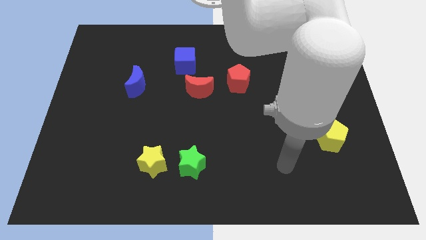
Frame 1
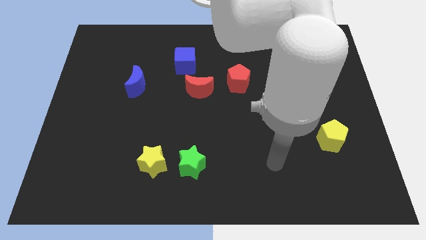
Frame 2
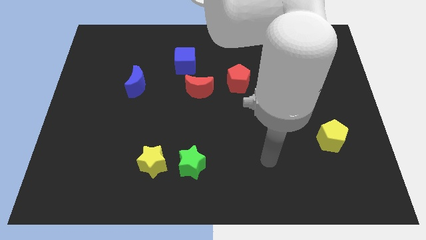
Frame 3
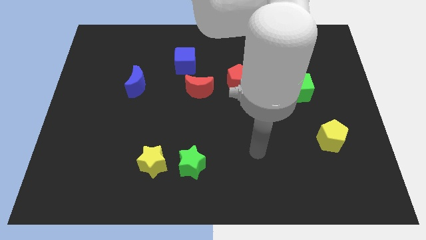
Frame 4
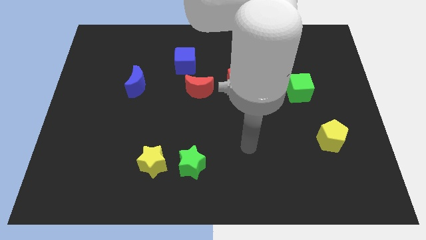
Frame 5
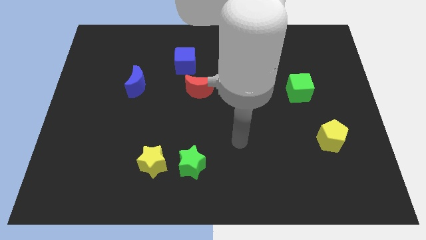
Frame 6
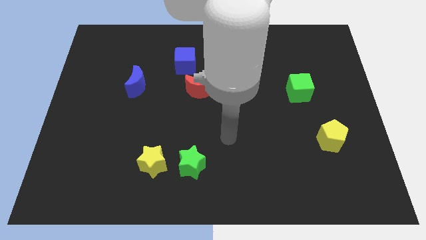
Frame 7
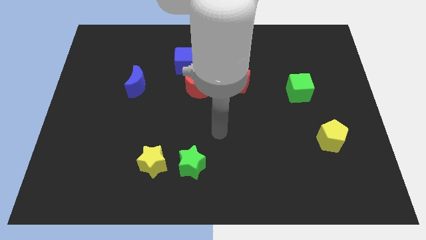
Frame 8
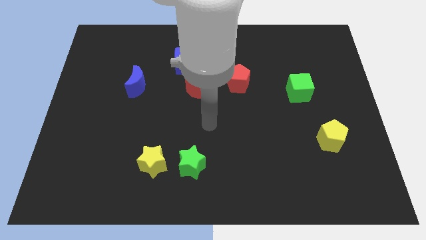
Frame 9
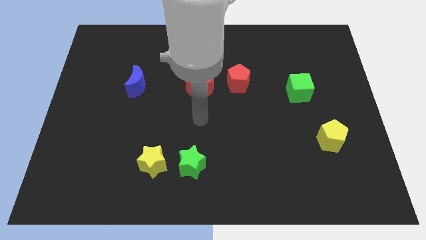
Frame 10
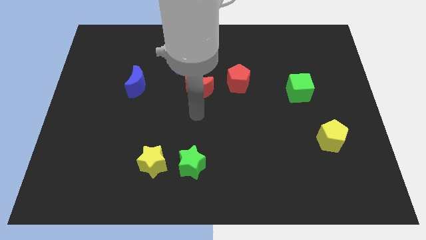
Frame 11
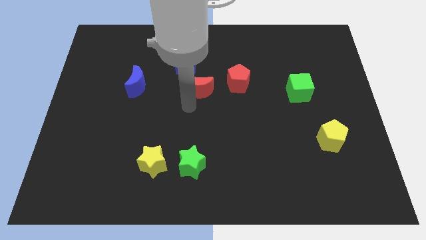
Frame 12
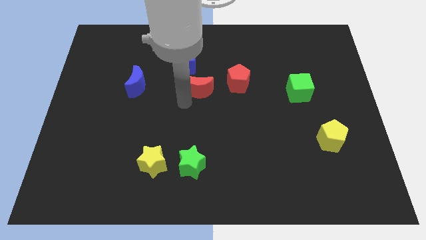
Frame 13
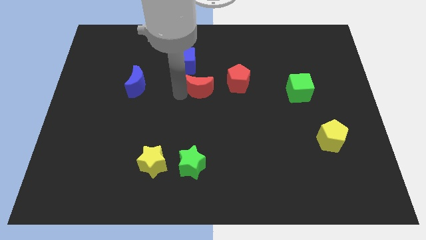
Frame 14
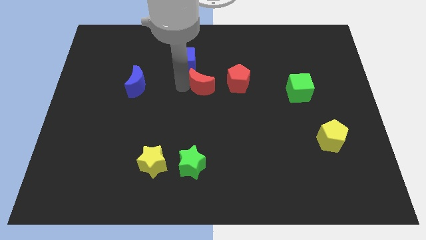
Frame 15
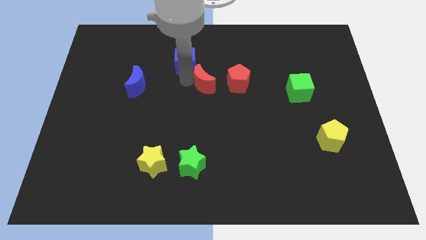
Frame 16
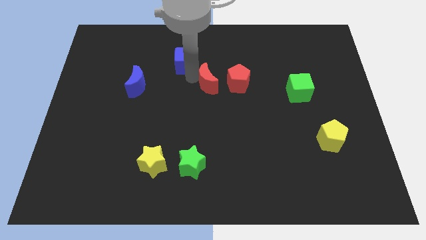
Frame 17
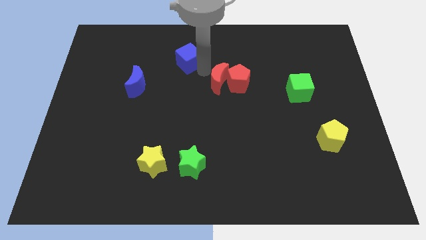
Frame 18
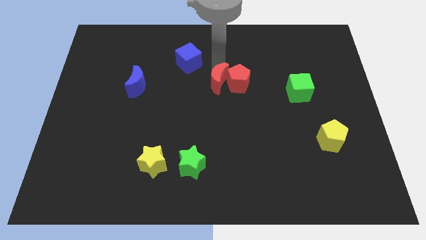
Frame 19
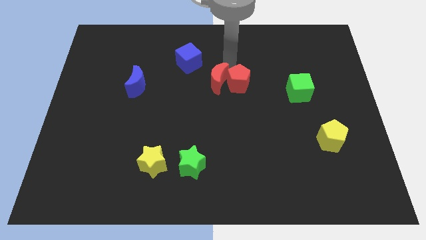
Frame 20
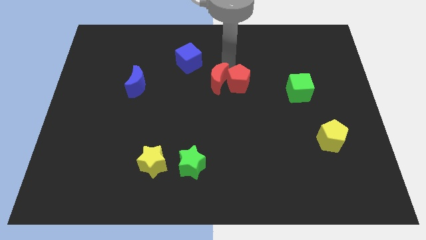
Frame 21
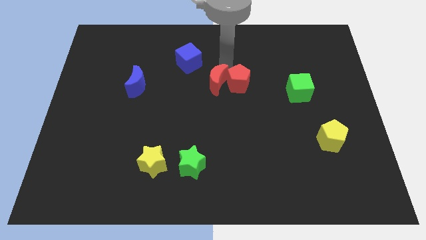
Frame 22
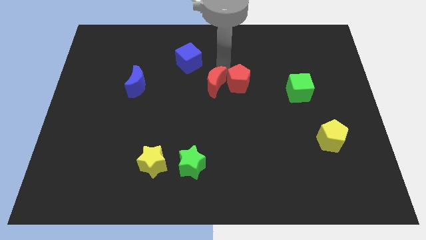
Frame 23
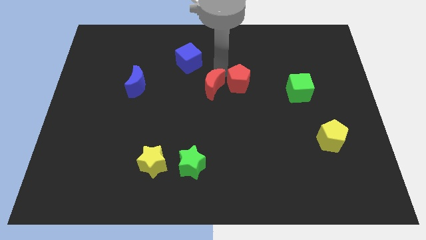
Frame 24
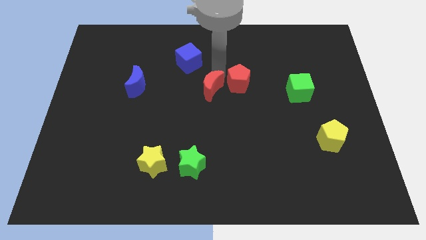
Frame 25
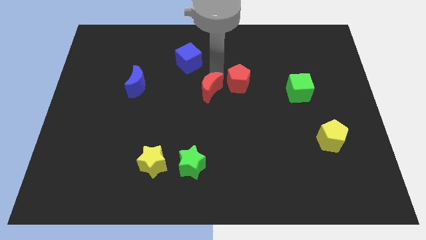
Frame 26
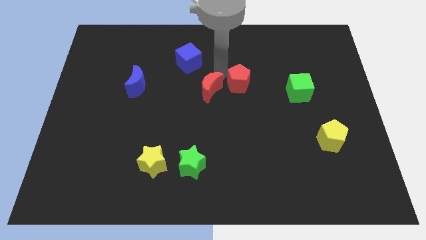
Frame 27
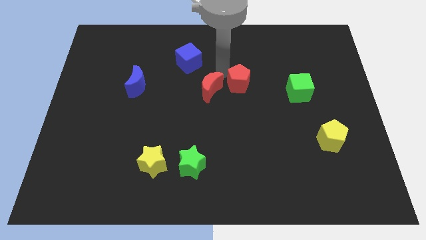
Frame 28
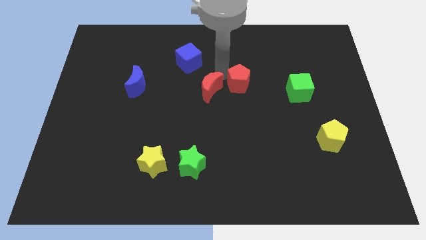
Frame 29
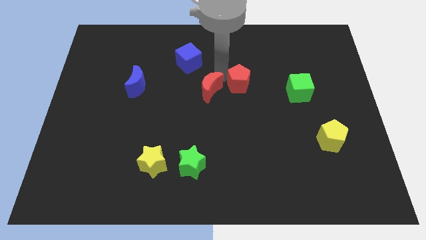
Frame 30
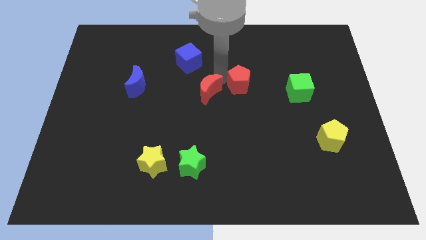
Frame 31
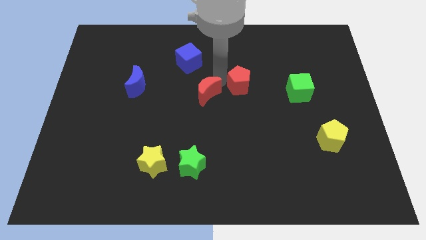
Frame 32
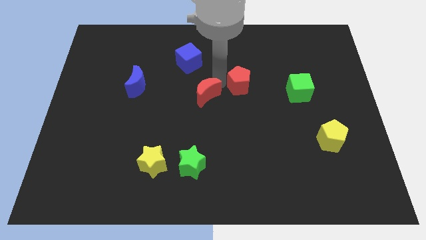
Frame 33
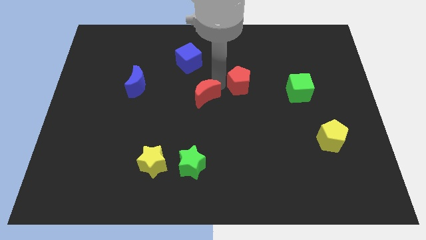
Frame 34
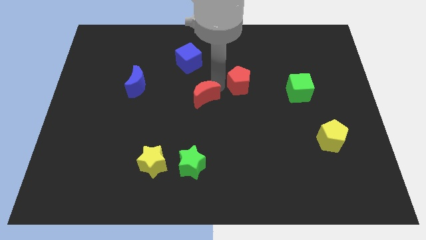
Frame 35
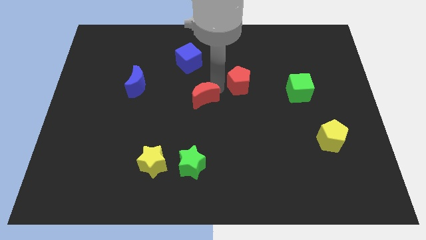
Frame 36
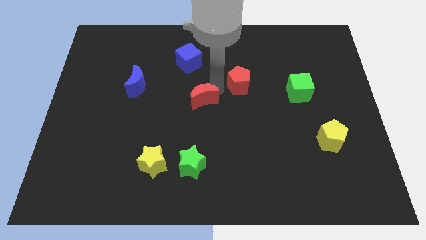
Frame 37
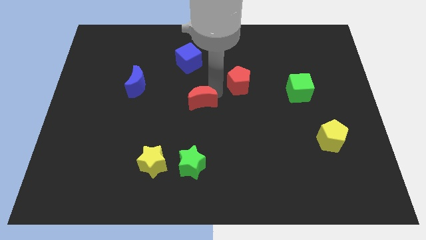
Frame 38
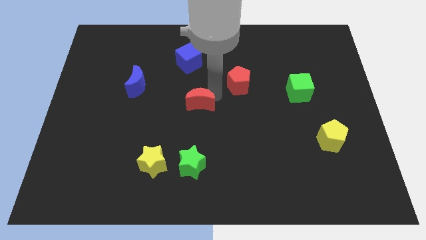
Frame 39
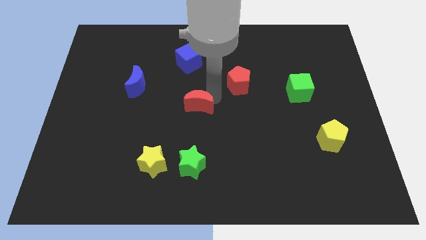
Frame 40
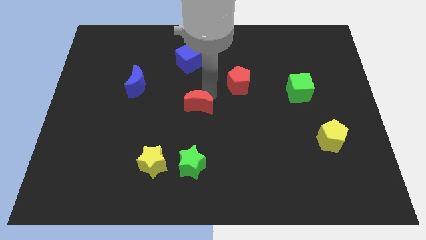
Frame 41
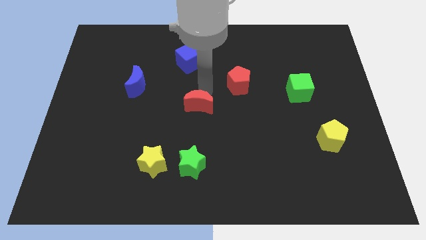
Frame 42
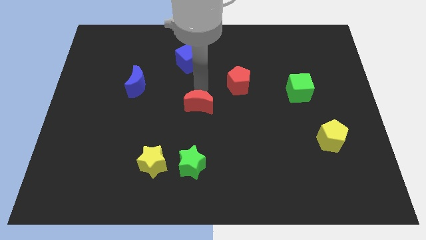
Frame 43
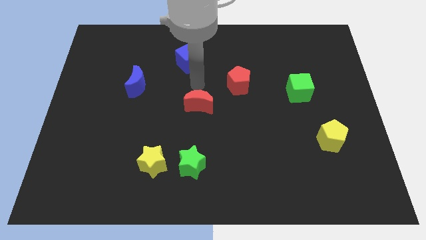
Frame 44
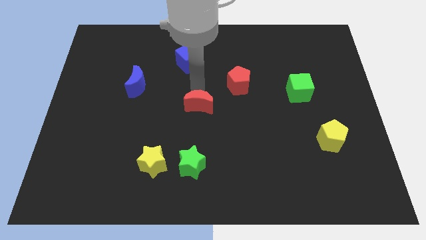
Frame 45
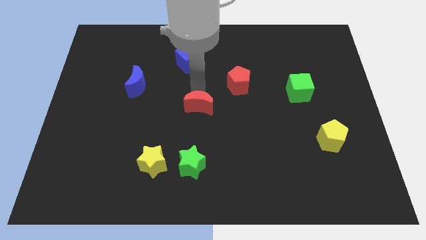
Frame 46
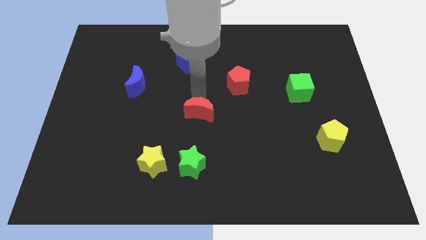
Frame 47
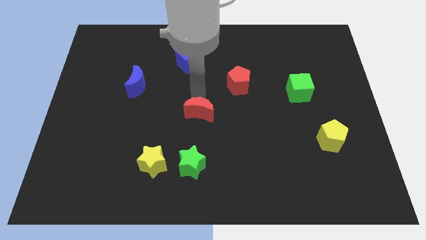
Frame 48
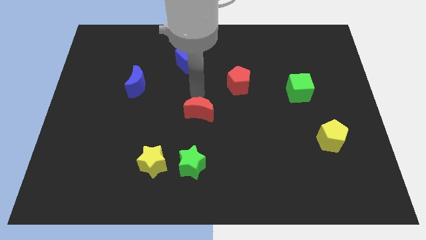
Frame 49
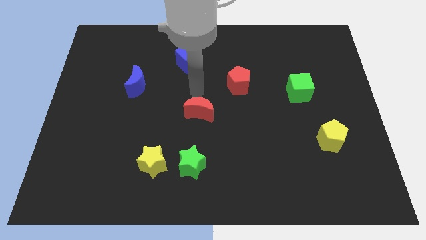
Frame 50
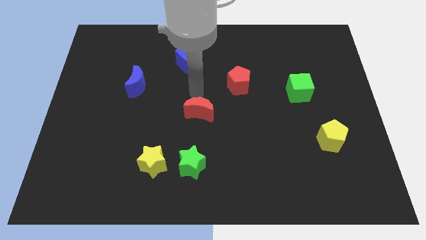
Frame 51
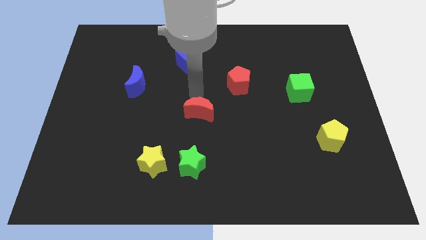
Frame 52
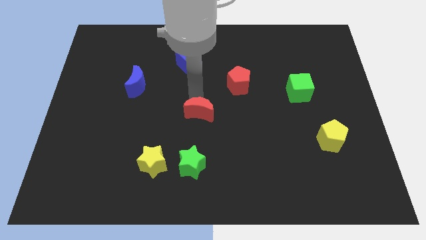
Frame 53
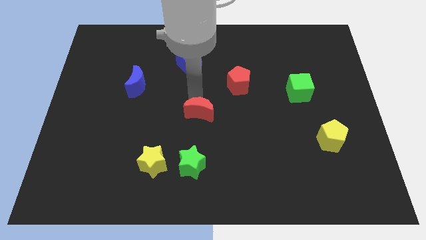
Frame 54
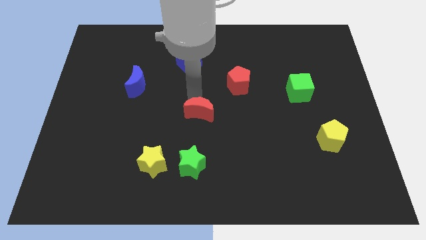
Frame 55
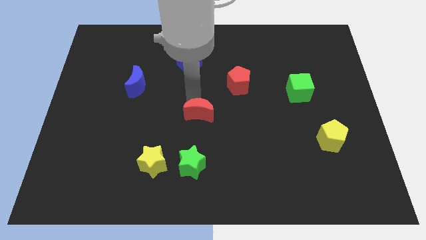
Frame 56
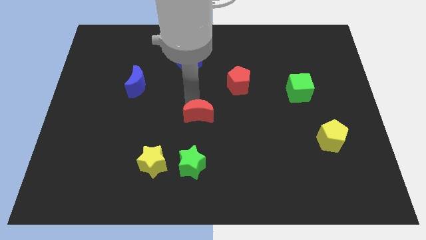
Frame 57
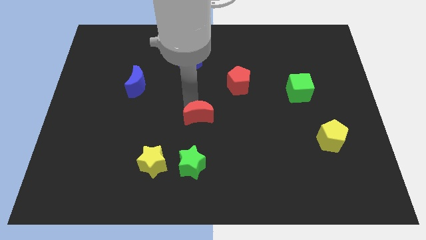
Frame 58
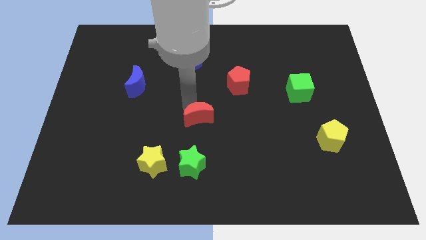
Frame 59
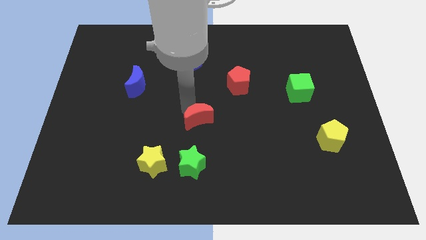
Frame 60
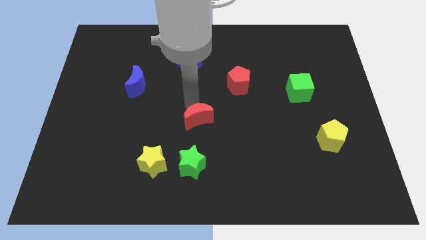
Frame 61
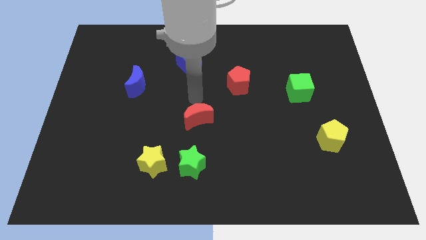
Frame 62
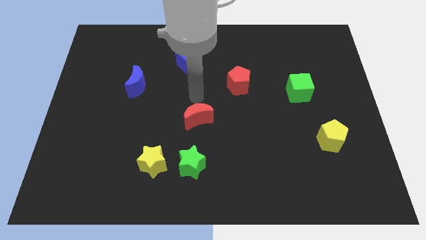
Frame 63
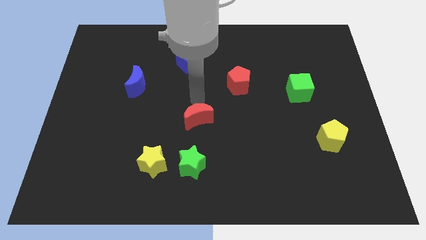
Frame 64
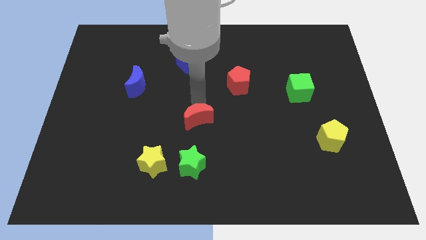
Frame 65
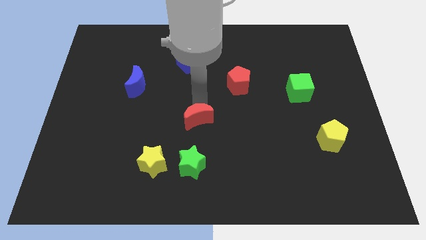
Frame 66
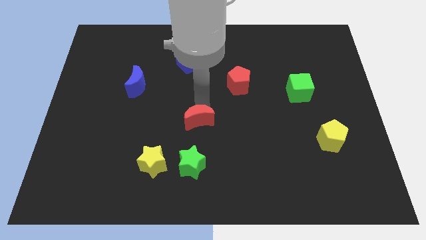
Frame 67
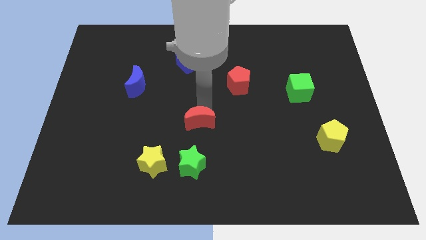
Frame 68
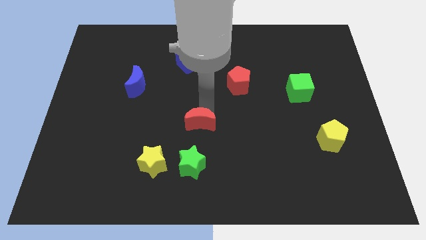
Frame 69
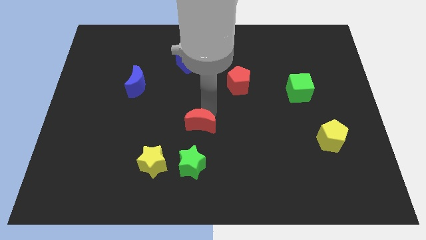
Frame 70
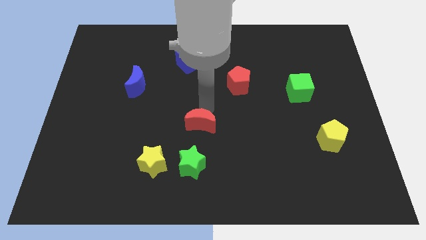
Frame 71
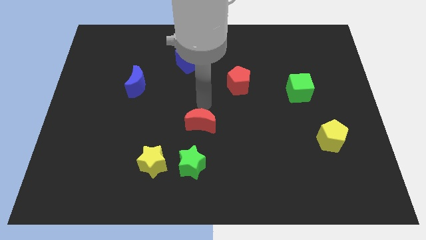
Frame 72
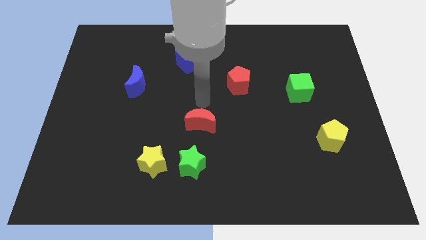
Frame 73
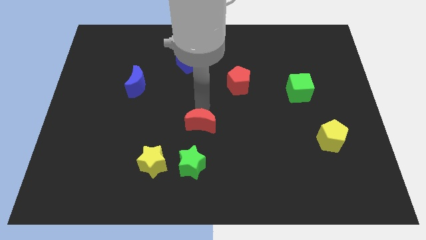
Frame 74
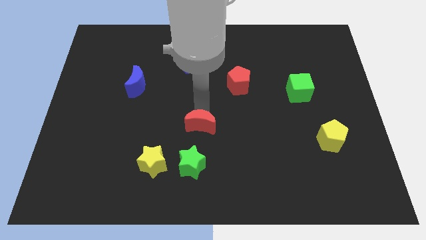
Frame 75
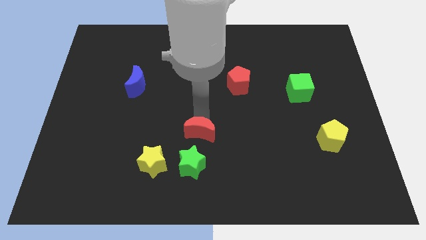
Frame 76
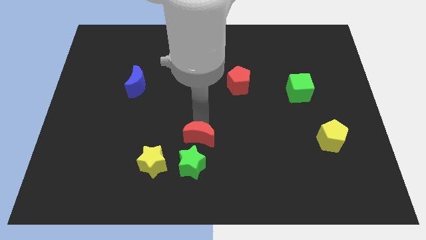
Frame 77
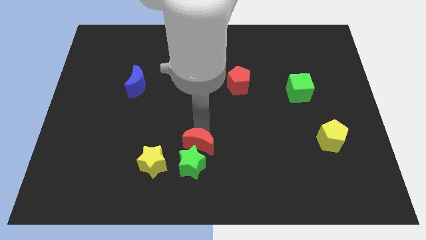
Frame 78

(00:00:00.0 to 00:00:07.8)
slide the red moon towards the green star
